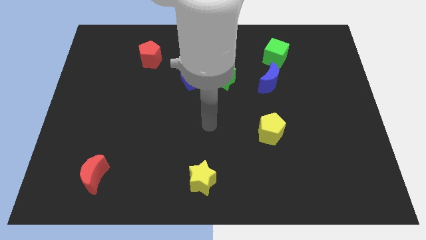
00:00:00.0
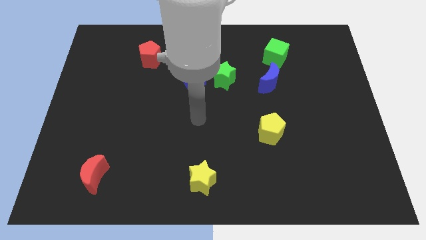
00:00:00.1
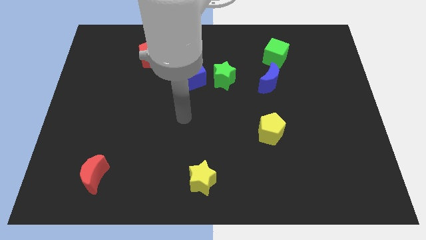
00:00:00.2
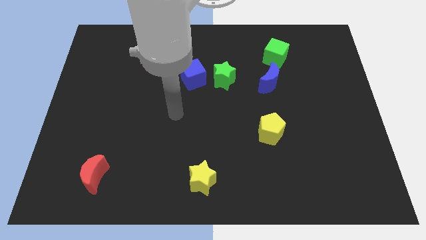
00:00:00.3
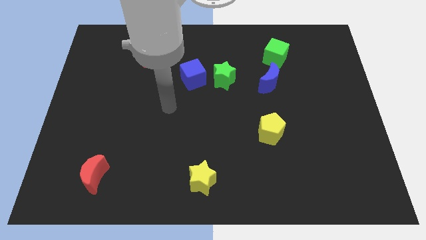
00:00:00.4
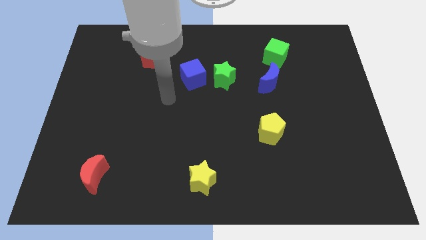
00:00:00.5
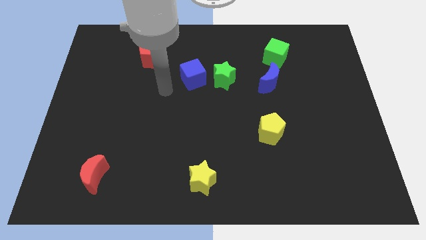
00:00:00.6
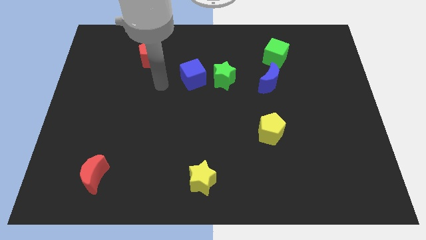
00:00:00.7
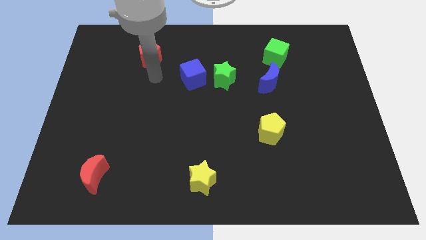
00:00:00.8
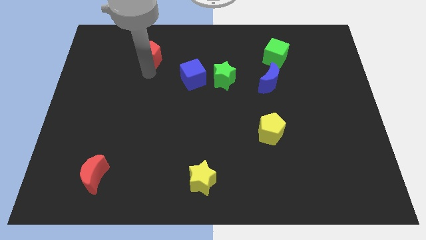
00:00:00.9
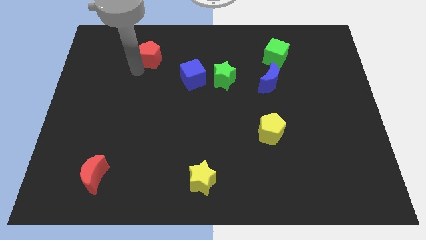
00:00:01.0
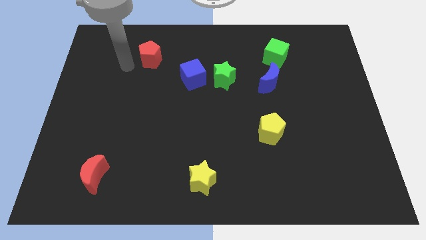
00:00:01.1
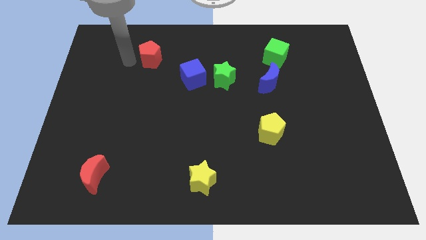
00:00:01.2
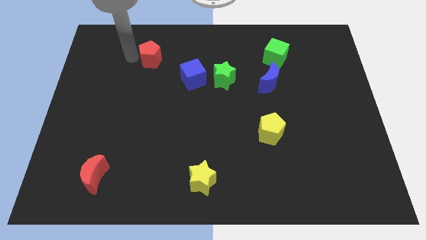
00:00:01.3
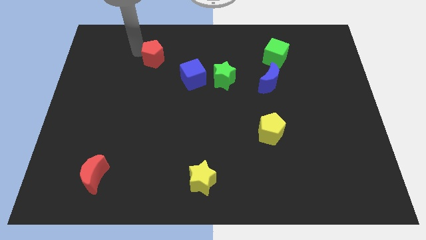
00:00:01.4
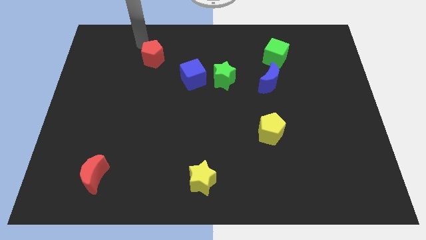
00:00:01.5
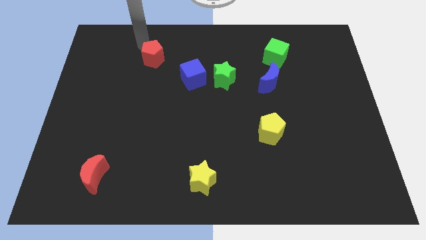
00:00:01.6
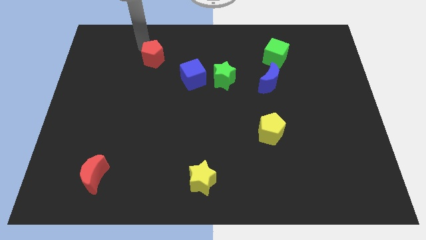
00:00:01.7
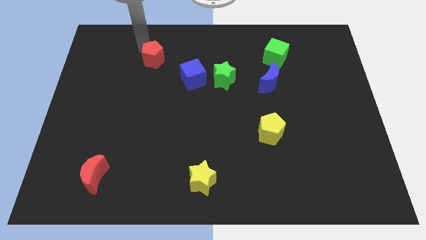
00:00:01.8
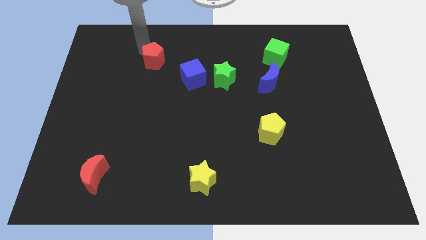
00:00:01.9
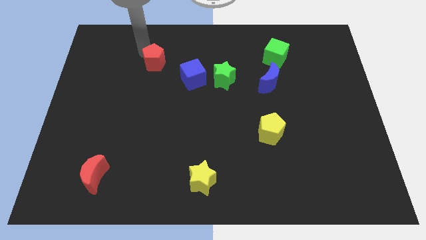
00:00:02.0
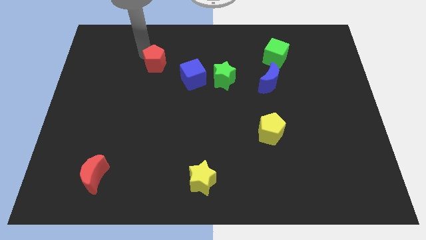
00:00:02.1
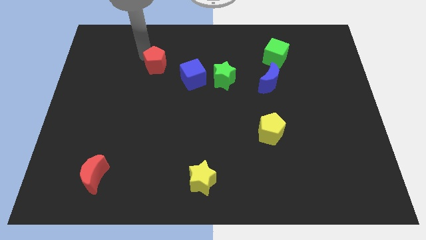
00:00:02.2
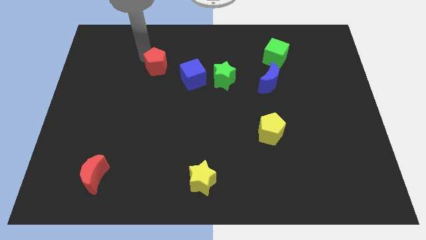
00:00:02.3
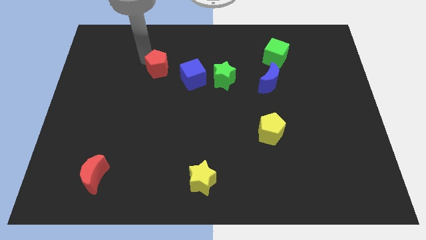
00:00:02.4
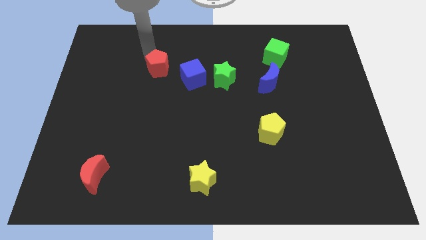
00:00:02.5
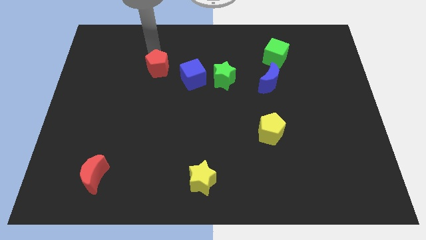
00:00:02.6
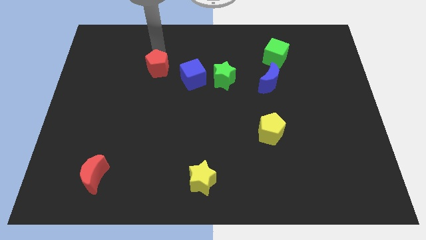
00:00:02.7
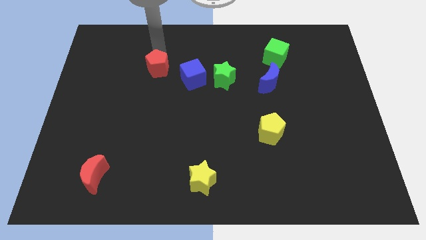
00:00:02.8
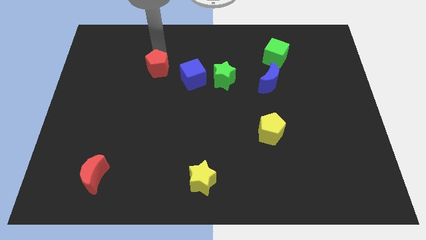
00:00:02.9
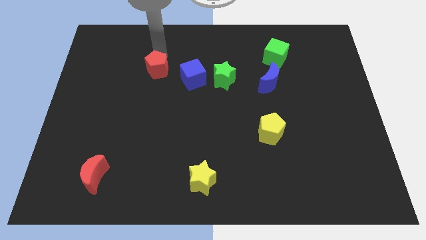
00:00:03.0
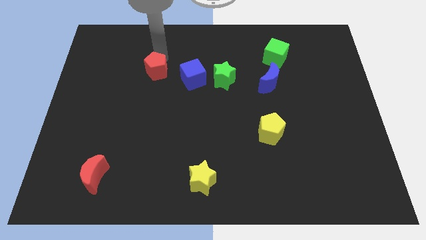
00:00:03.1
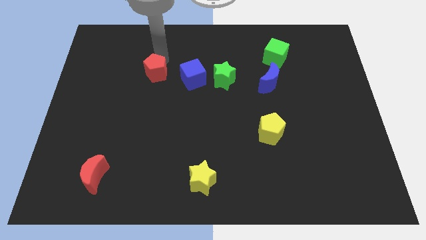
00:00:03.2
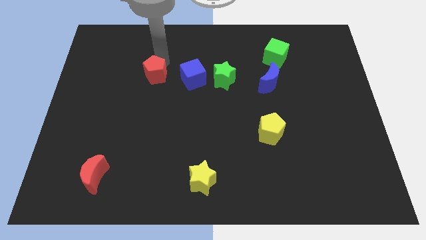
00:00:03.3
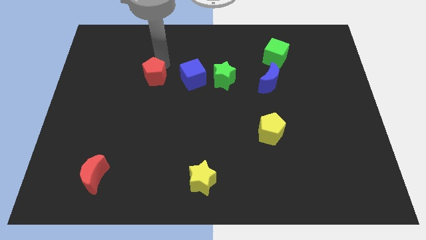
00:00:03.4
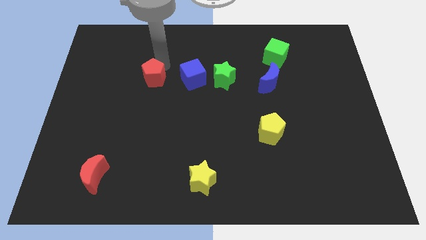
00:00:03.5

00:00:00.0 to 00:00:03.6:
slightly move the red pentagon down

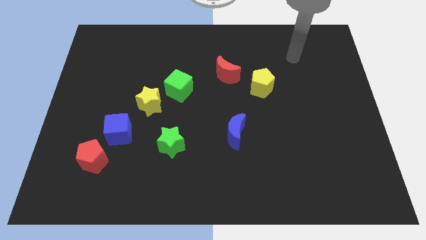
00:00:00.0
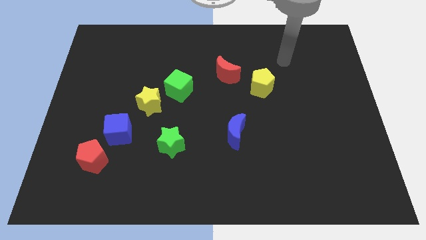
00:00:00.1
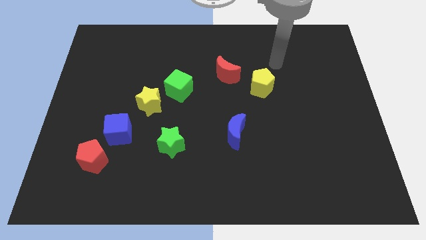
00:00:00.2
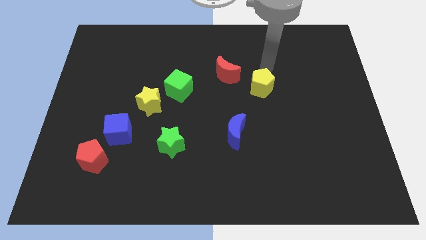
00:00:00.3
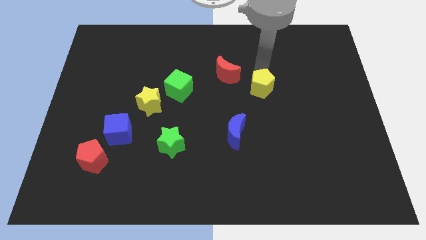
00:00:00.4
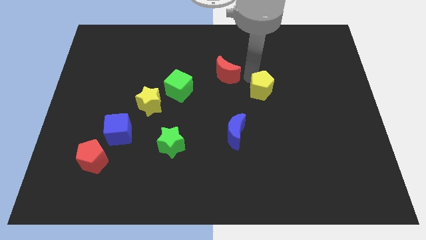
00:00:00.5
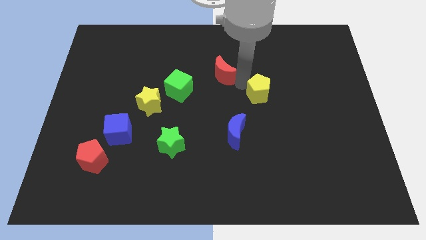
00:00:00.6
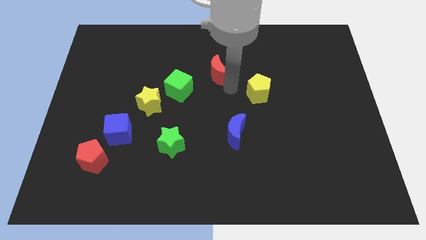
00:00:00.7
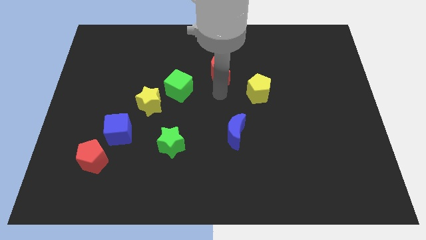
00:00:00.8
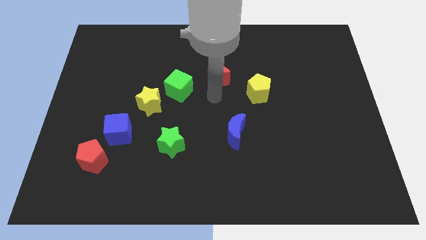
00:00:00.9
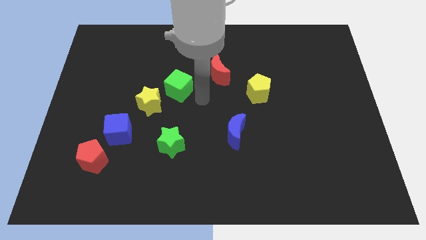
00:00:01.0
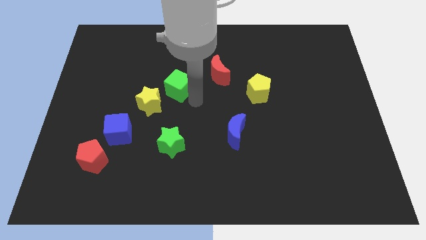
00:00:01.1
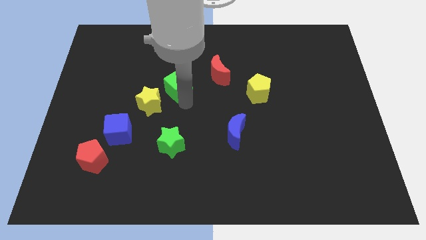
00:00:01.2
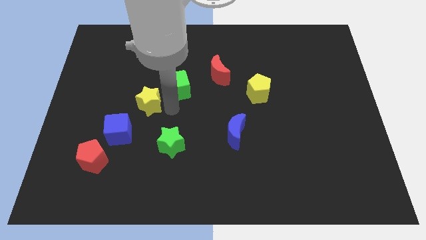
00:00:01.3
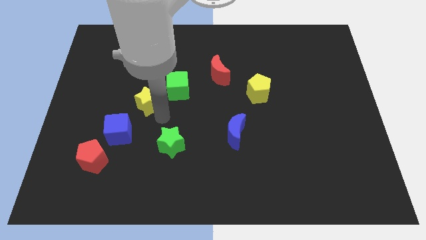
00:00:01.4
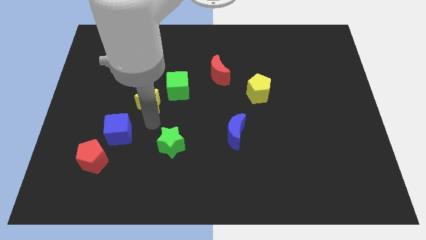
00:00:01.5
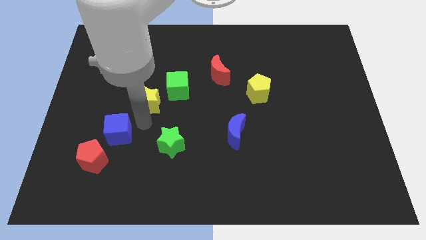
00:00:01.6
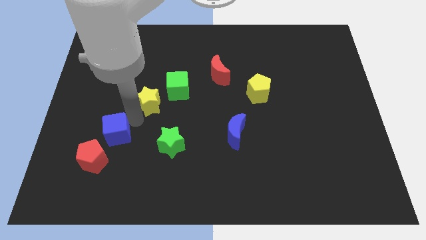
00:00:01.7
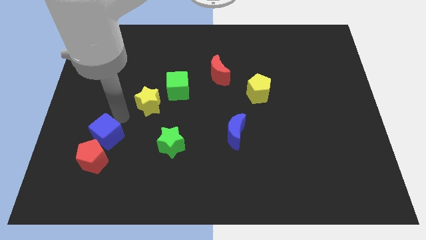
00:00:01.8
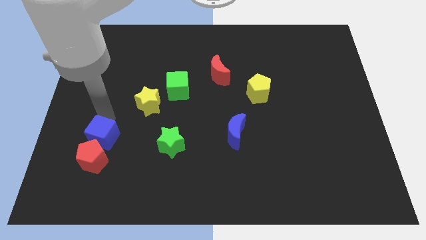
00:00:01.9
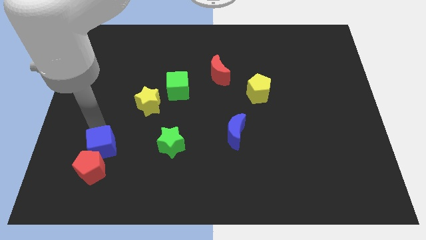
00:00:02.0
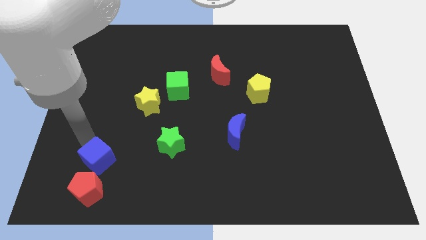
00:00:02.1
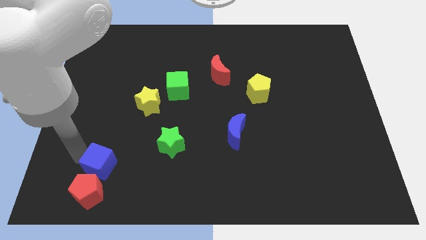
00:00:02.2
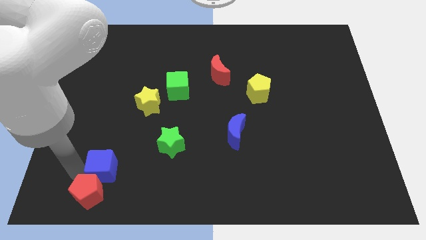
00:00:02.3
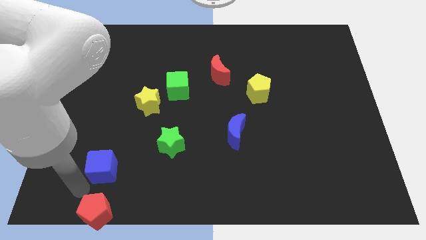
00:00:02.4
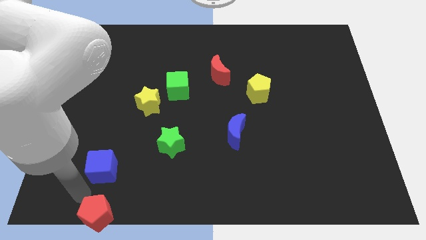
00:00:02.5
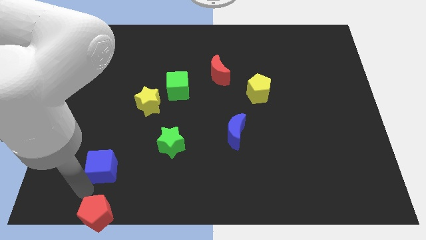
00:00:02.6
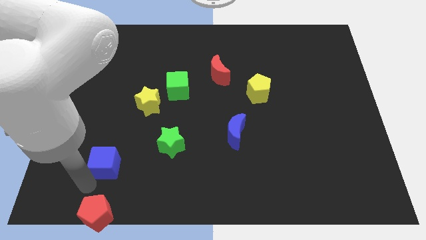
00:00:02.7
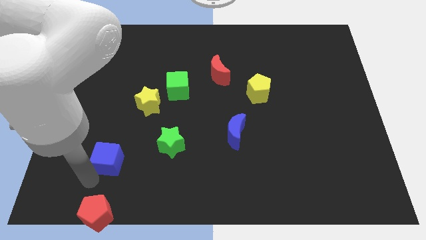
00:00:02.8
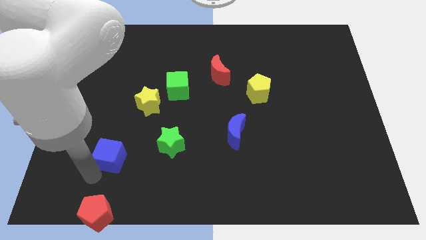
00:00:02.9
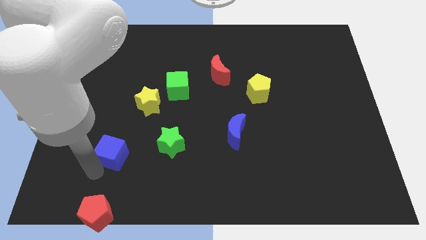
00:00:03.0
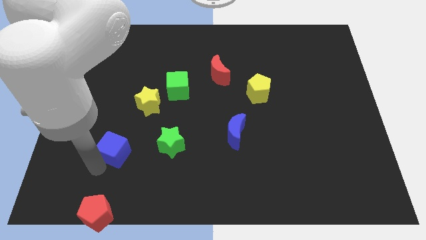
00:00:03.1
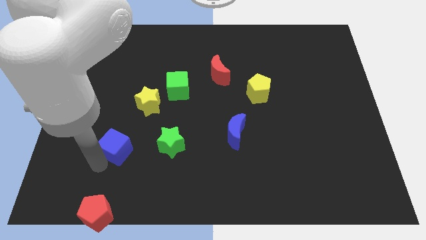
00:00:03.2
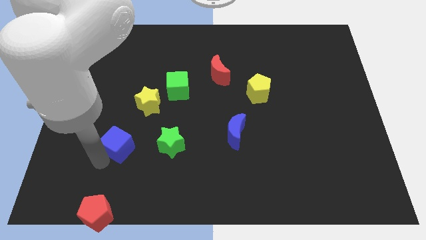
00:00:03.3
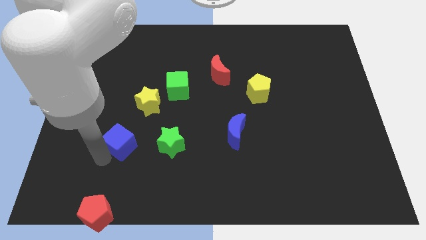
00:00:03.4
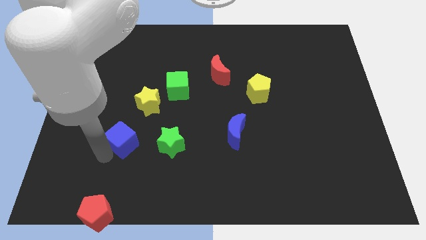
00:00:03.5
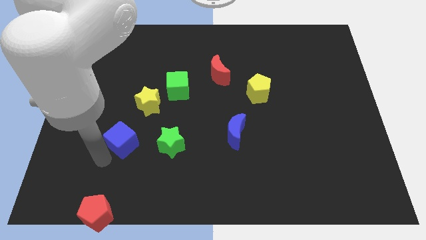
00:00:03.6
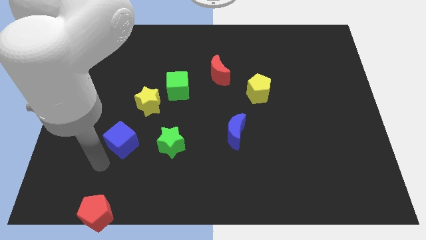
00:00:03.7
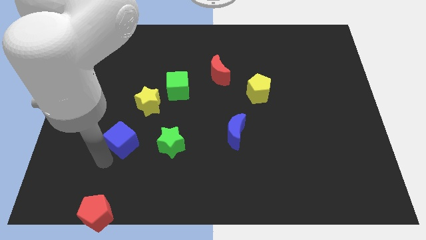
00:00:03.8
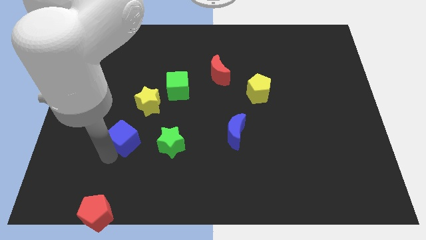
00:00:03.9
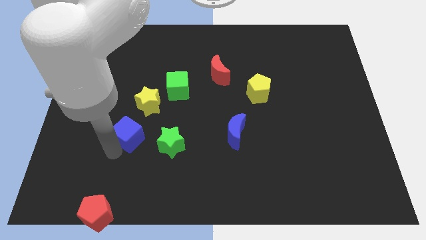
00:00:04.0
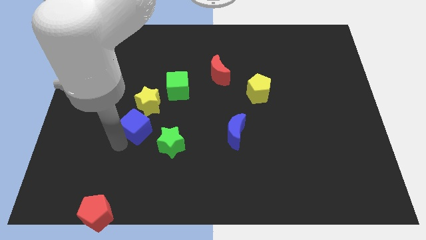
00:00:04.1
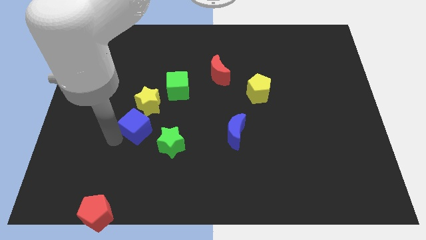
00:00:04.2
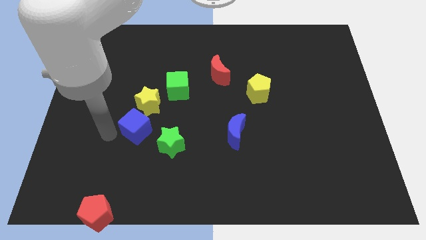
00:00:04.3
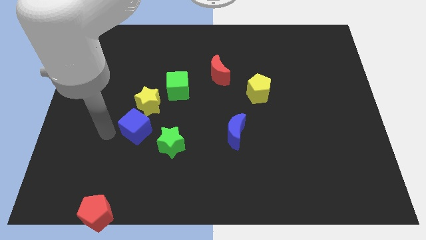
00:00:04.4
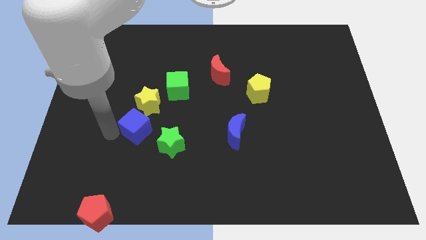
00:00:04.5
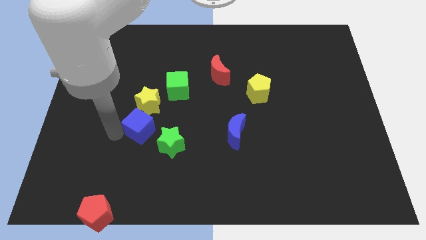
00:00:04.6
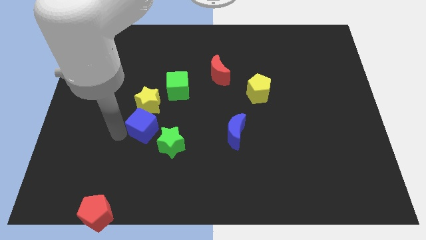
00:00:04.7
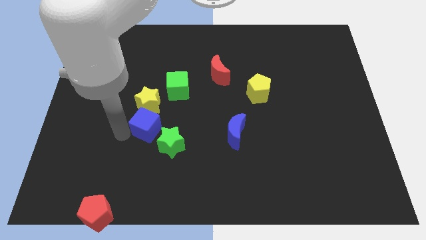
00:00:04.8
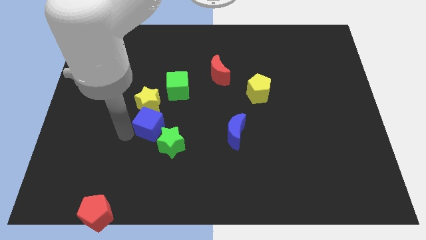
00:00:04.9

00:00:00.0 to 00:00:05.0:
push the blue cube a little right
